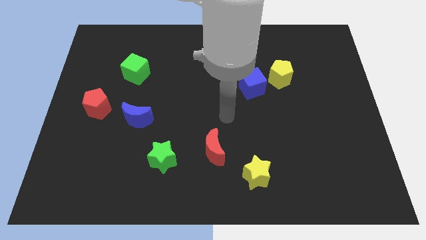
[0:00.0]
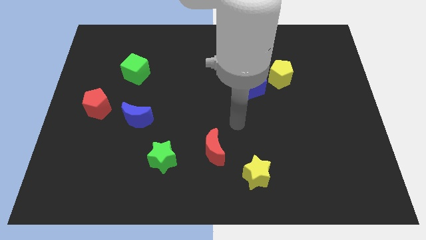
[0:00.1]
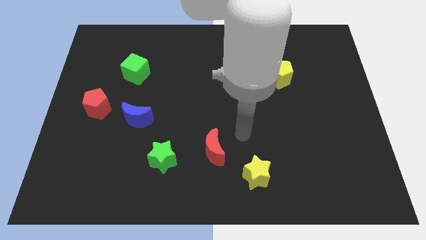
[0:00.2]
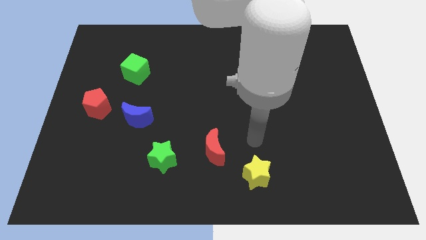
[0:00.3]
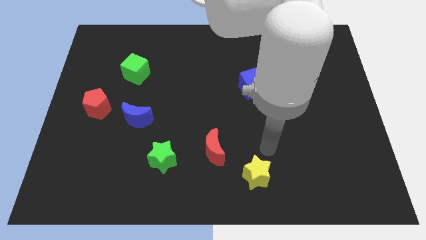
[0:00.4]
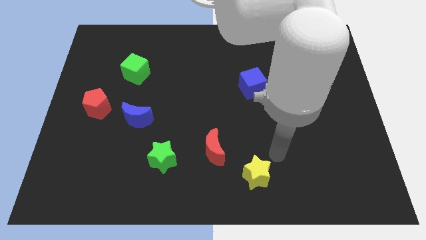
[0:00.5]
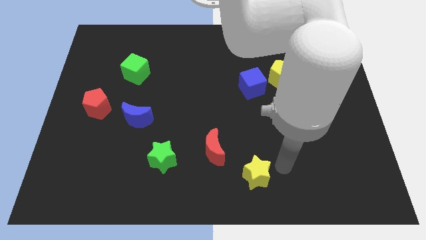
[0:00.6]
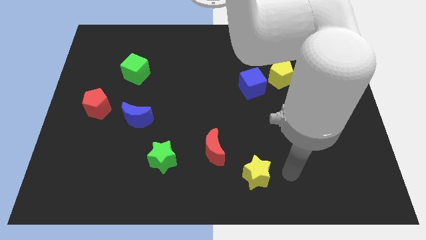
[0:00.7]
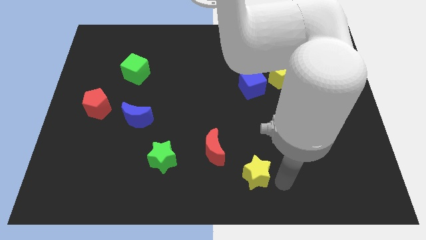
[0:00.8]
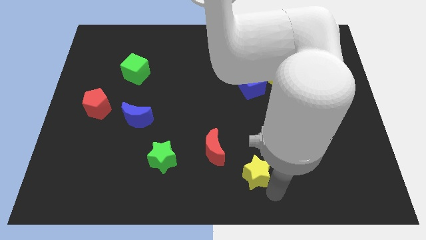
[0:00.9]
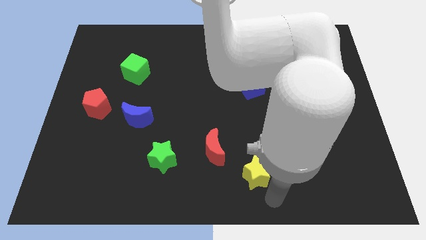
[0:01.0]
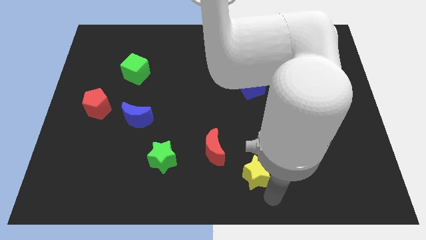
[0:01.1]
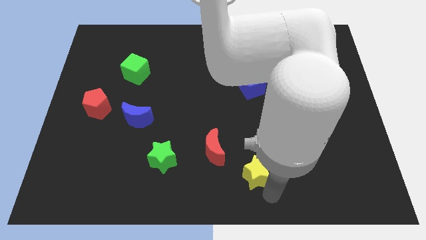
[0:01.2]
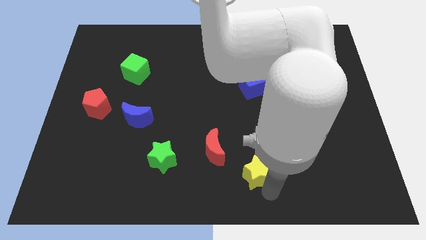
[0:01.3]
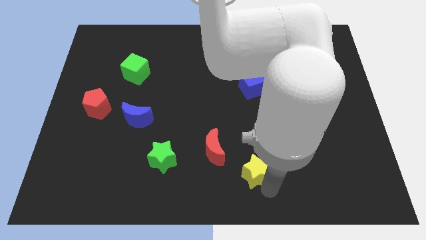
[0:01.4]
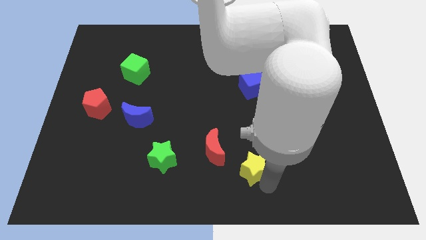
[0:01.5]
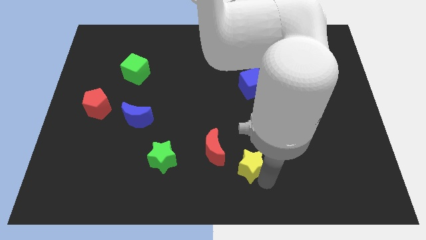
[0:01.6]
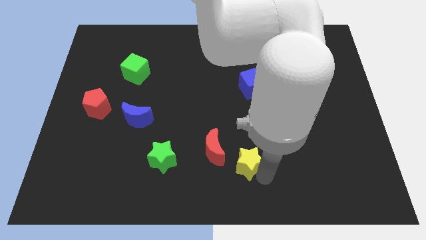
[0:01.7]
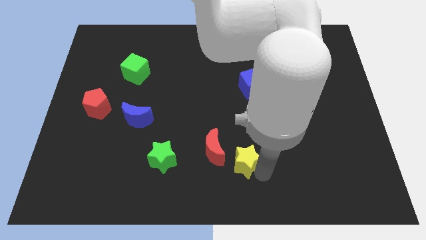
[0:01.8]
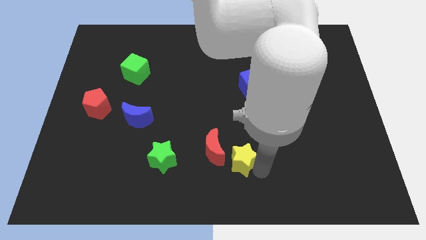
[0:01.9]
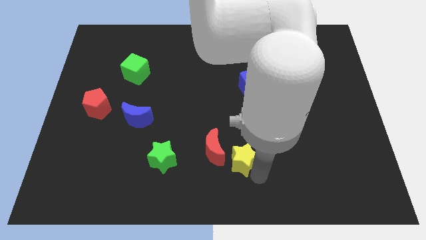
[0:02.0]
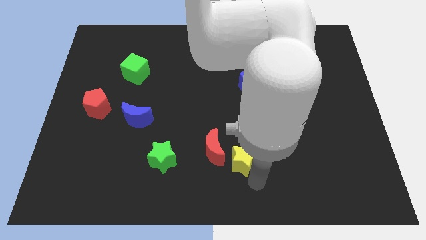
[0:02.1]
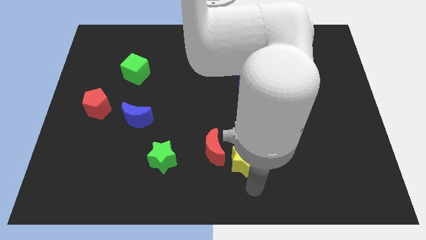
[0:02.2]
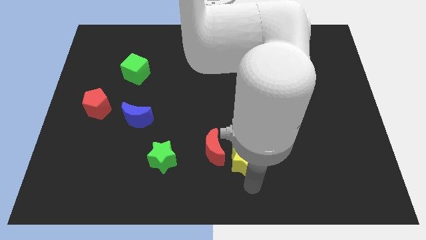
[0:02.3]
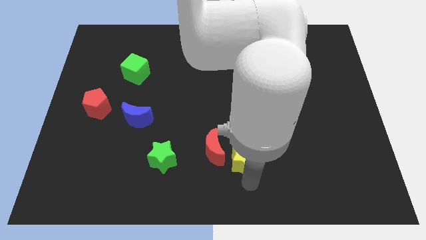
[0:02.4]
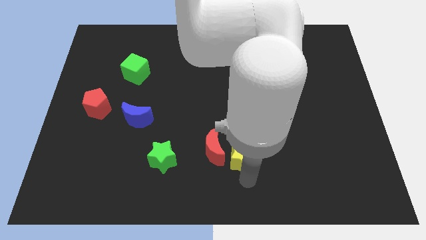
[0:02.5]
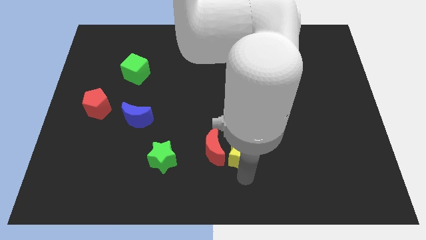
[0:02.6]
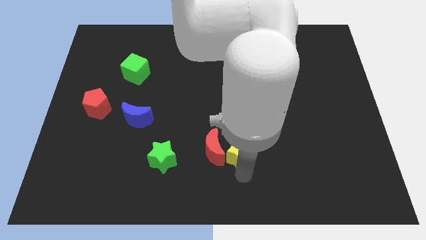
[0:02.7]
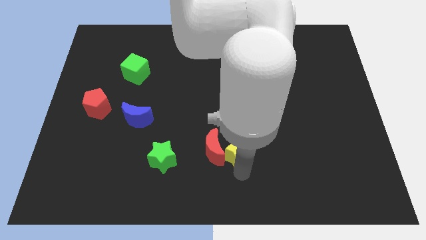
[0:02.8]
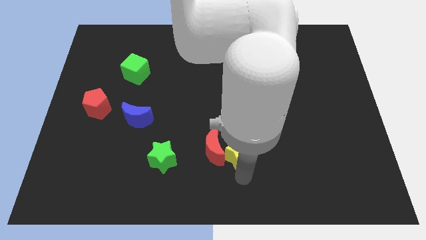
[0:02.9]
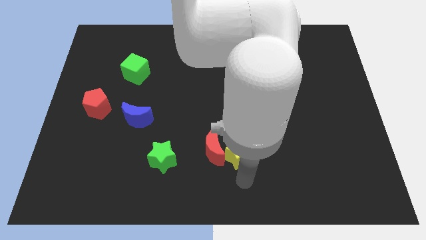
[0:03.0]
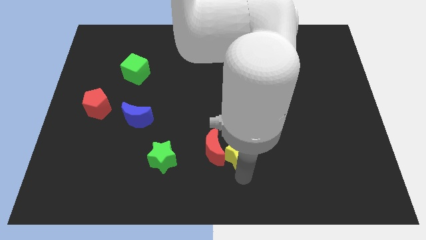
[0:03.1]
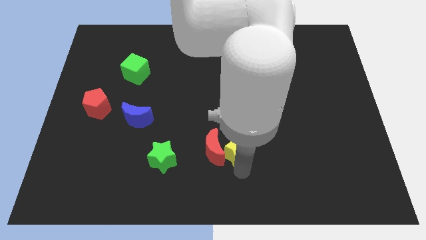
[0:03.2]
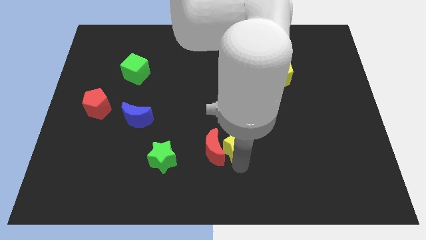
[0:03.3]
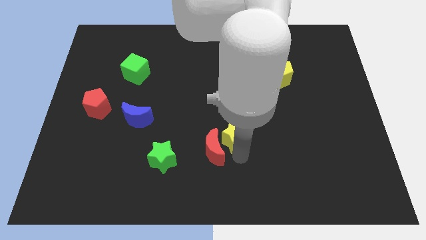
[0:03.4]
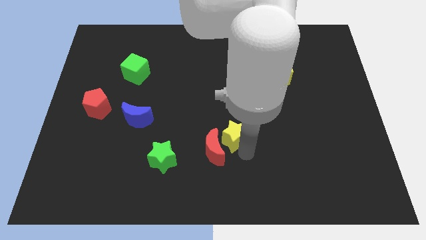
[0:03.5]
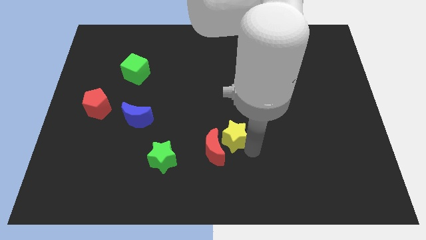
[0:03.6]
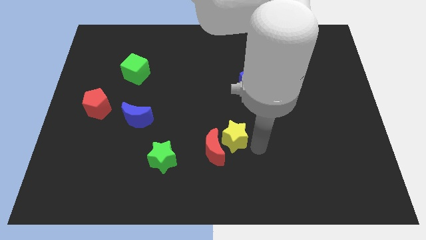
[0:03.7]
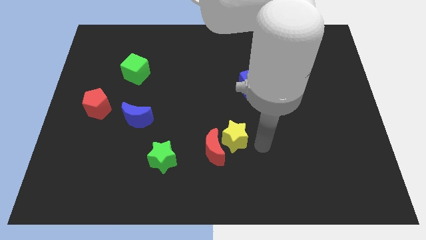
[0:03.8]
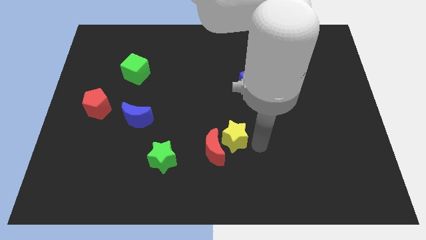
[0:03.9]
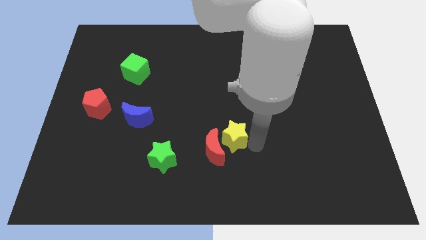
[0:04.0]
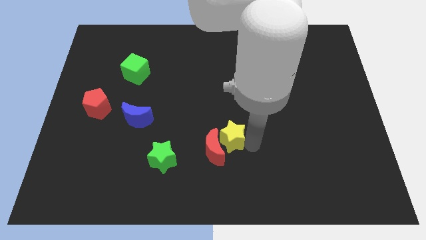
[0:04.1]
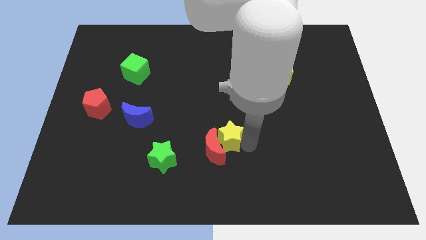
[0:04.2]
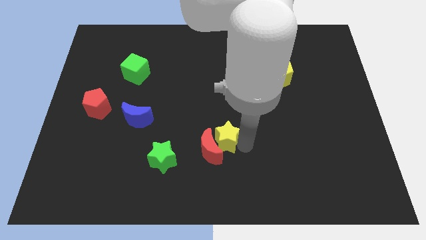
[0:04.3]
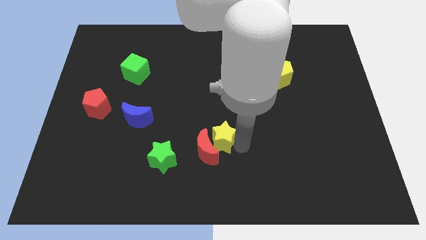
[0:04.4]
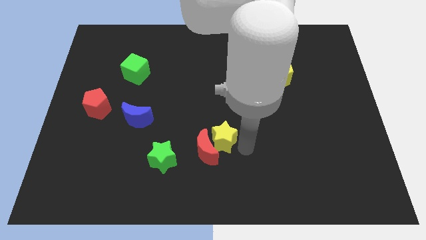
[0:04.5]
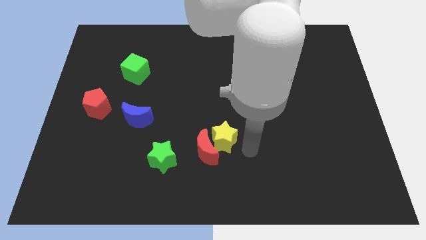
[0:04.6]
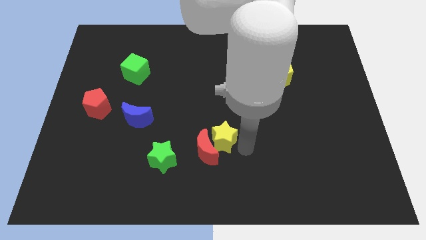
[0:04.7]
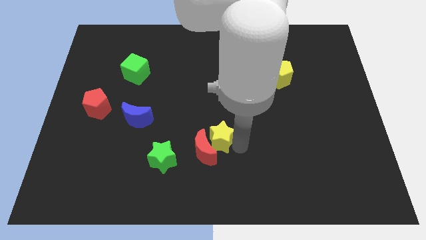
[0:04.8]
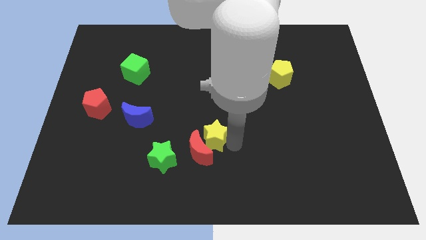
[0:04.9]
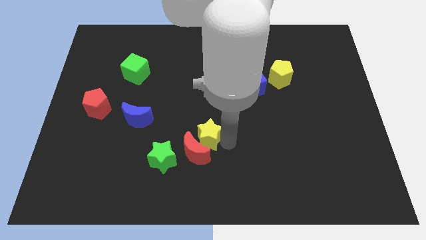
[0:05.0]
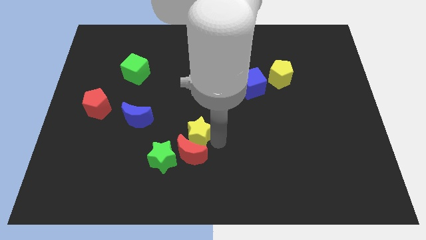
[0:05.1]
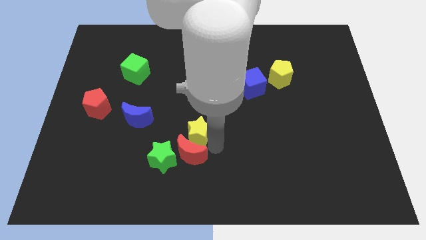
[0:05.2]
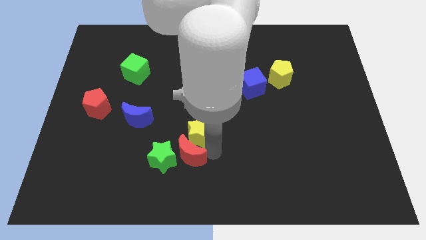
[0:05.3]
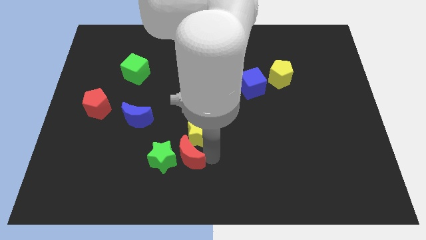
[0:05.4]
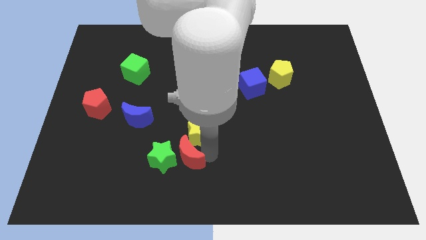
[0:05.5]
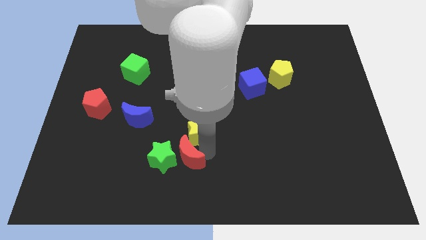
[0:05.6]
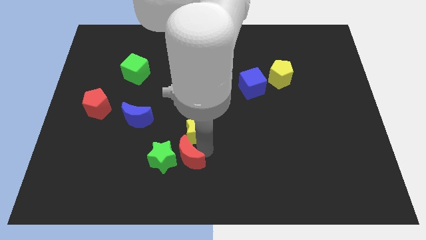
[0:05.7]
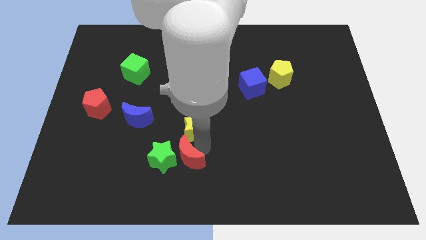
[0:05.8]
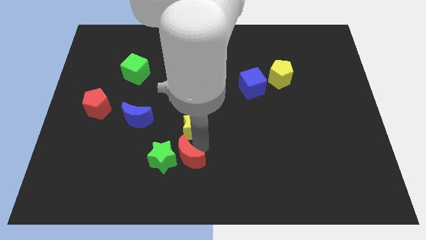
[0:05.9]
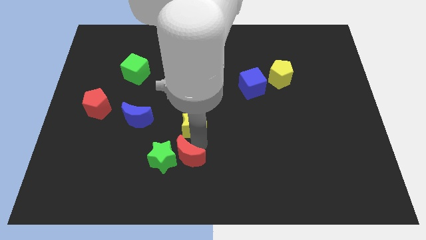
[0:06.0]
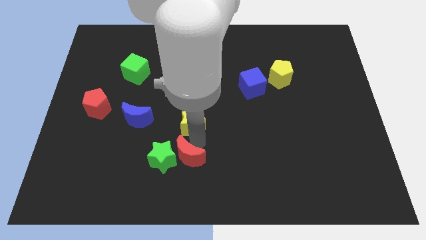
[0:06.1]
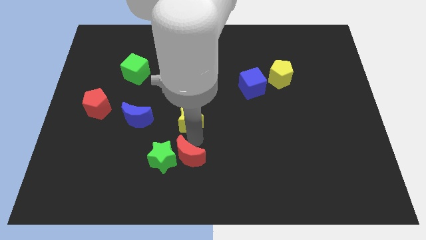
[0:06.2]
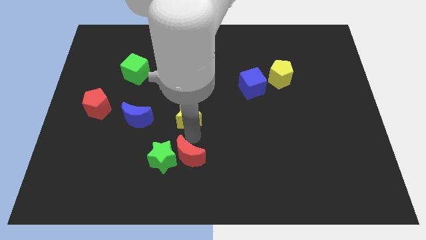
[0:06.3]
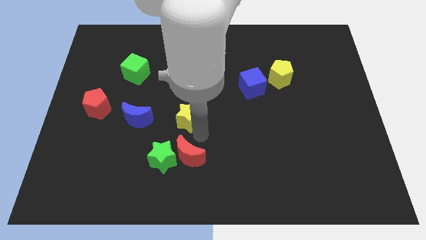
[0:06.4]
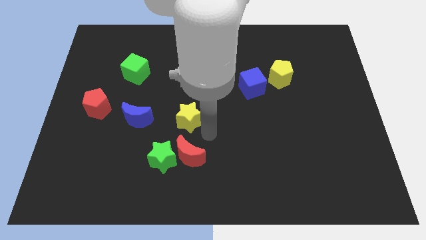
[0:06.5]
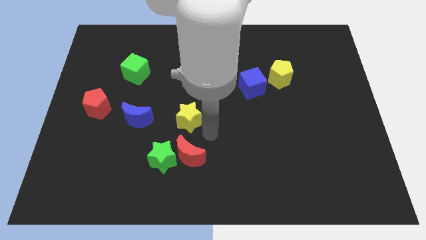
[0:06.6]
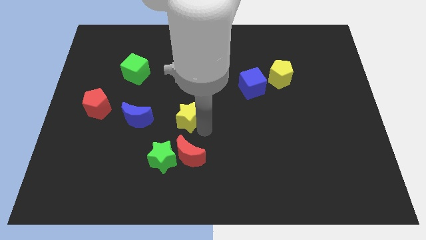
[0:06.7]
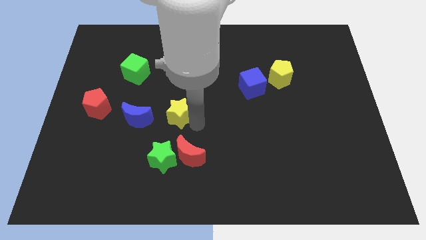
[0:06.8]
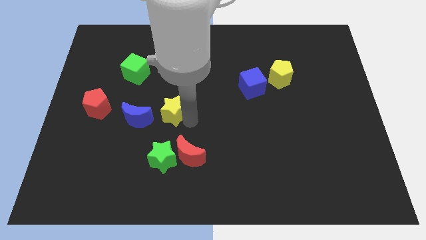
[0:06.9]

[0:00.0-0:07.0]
slide the yellow star to the top right of the blue moon
